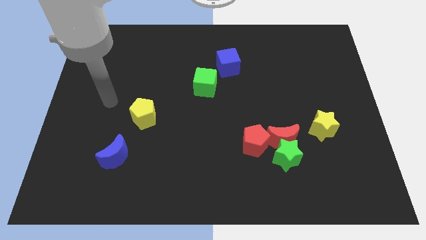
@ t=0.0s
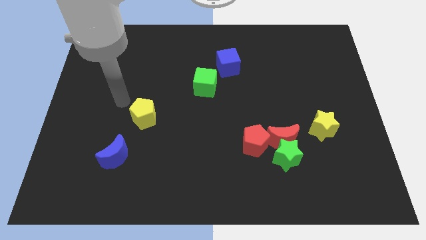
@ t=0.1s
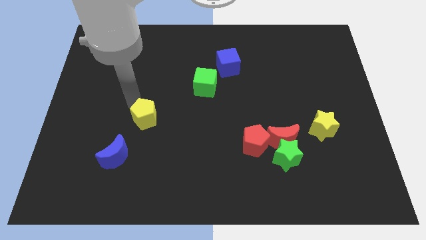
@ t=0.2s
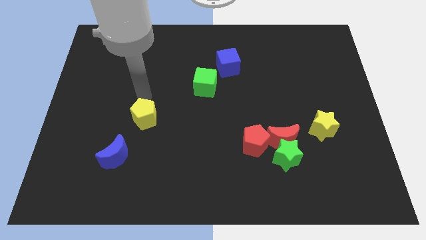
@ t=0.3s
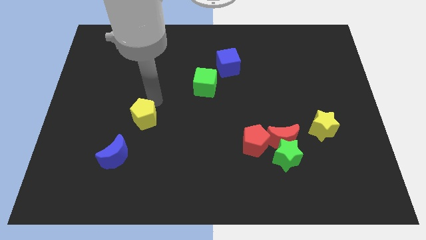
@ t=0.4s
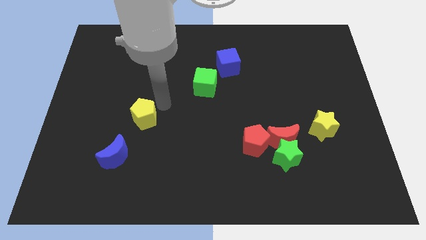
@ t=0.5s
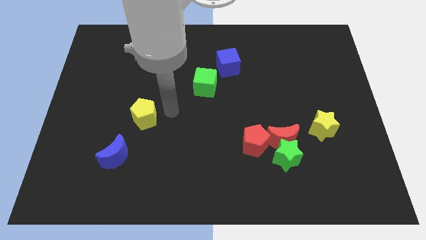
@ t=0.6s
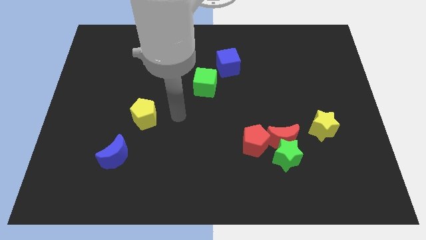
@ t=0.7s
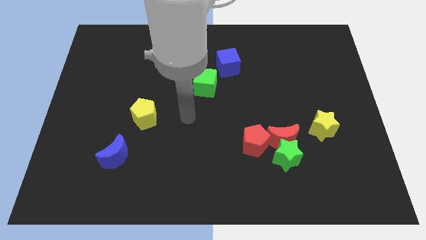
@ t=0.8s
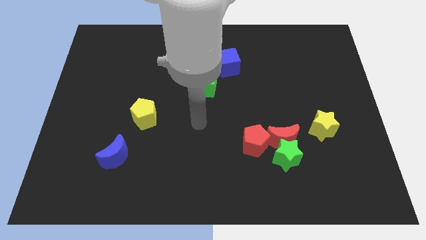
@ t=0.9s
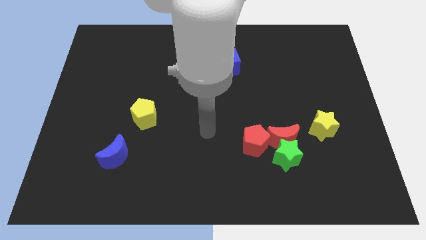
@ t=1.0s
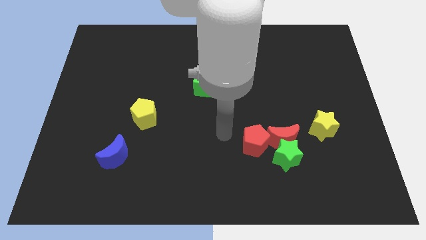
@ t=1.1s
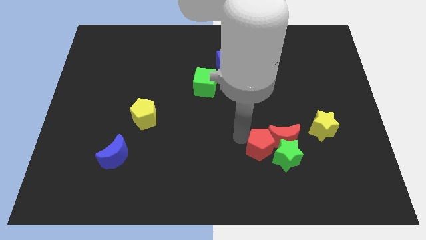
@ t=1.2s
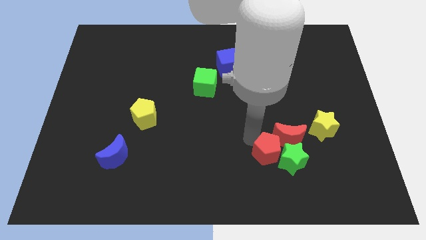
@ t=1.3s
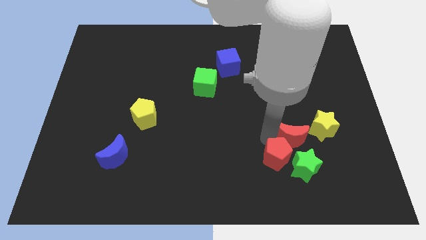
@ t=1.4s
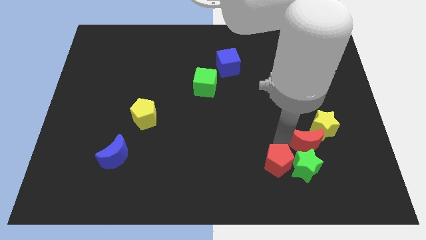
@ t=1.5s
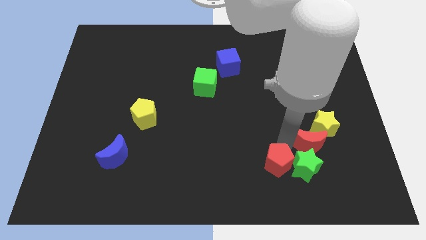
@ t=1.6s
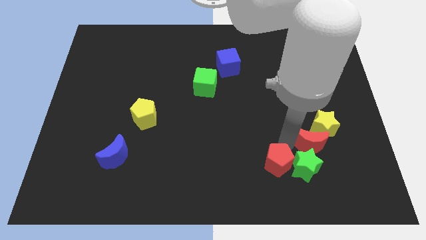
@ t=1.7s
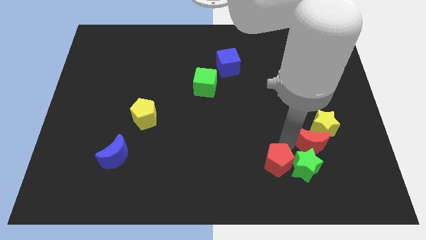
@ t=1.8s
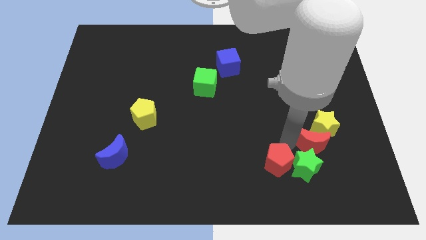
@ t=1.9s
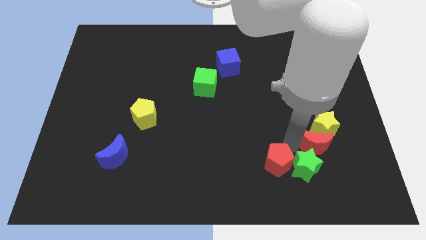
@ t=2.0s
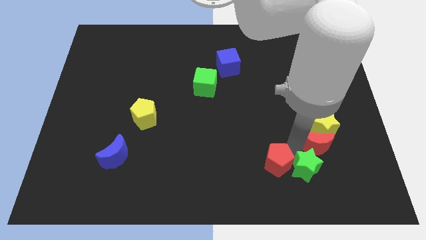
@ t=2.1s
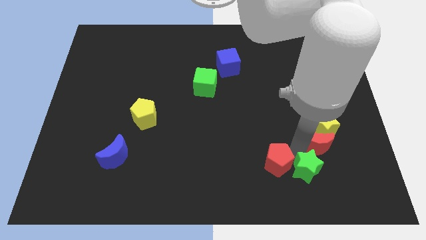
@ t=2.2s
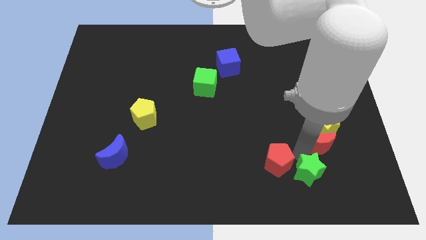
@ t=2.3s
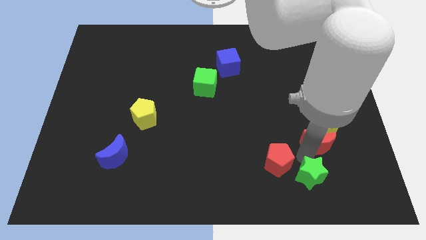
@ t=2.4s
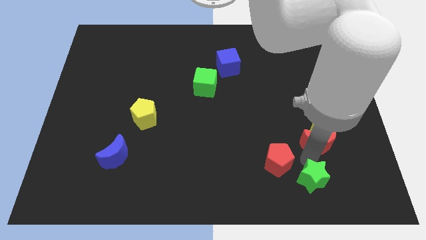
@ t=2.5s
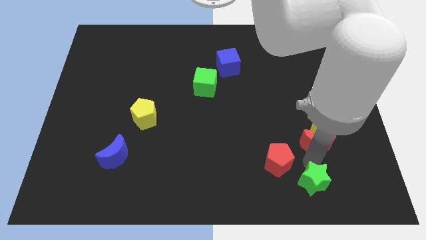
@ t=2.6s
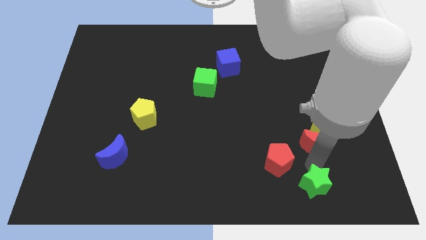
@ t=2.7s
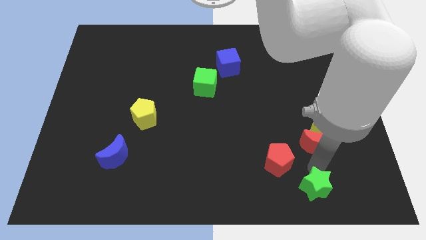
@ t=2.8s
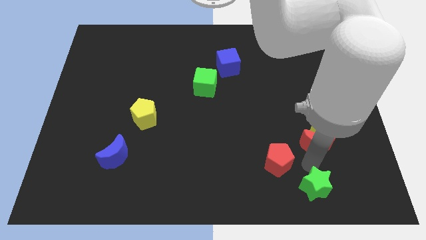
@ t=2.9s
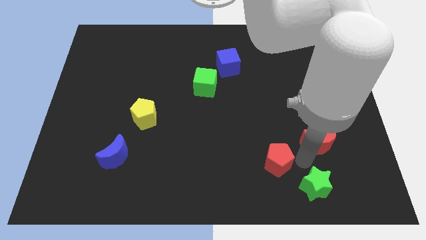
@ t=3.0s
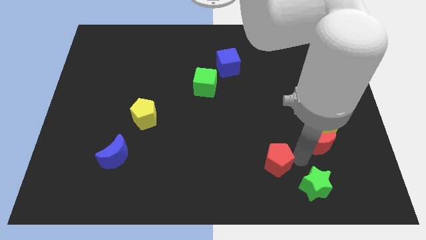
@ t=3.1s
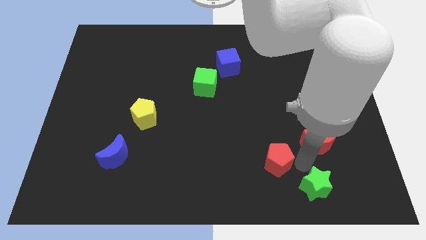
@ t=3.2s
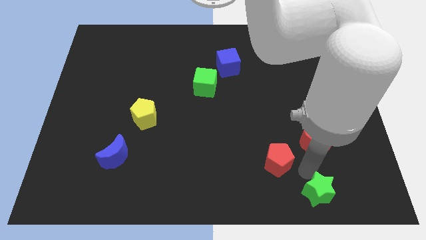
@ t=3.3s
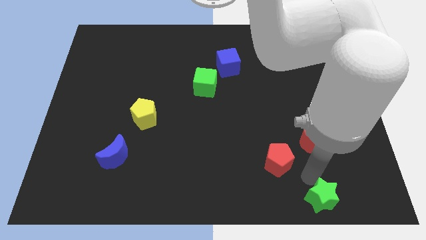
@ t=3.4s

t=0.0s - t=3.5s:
pull the green star apart from the red moon and red pentagon

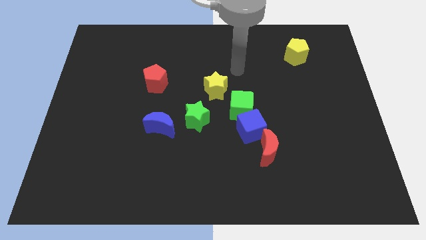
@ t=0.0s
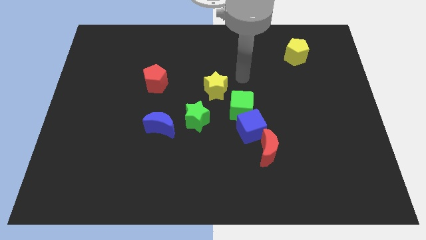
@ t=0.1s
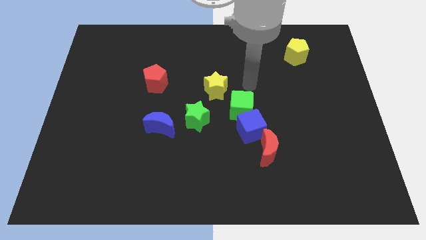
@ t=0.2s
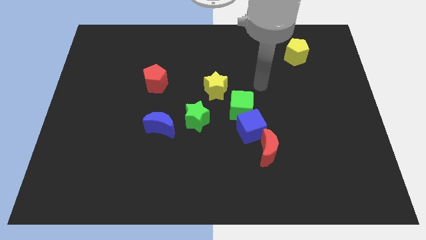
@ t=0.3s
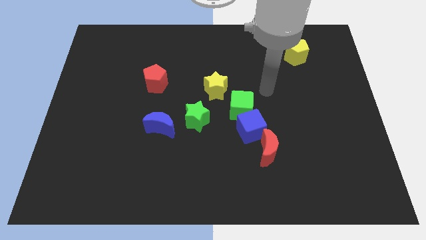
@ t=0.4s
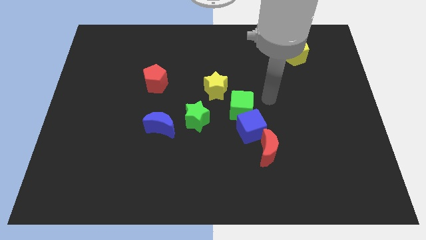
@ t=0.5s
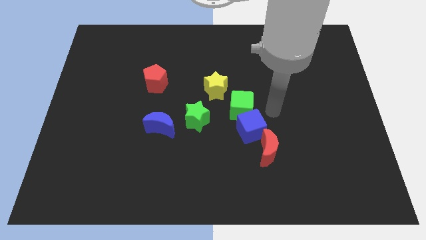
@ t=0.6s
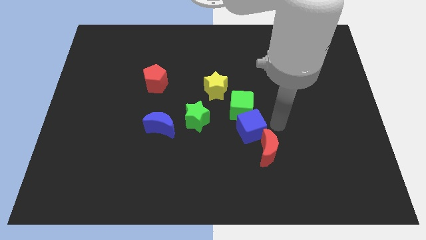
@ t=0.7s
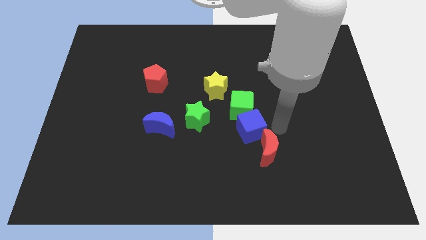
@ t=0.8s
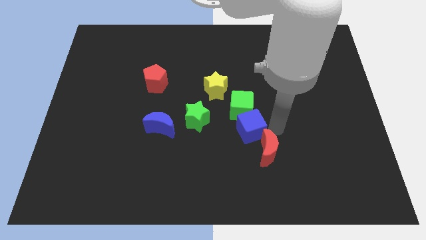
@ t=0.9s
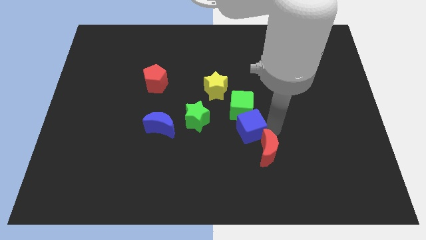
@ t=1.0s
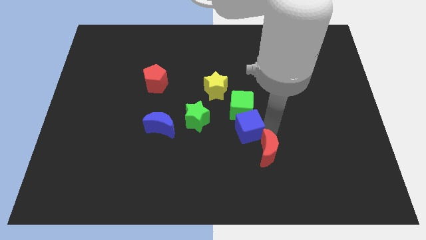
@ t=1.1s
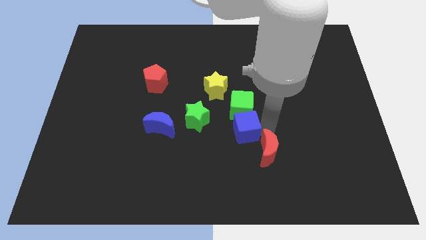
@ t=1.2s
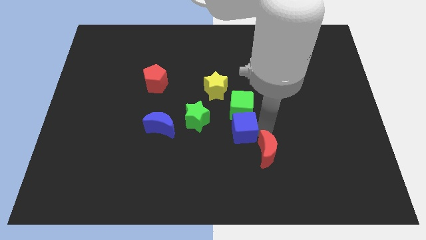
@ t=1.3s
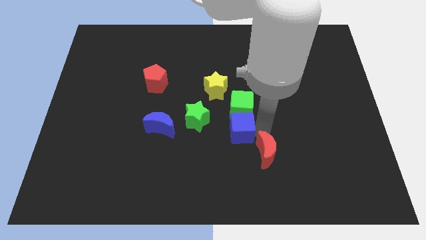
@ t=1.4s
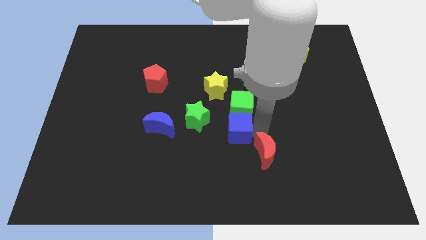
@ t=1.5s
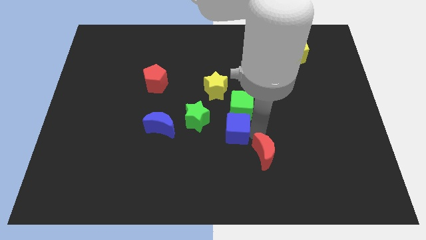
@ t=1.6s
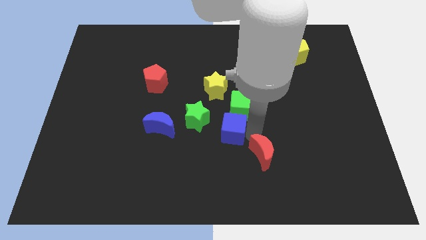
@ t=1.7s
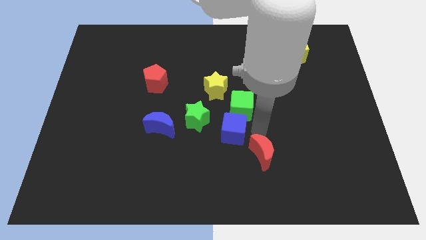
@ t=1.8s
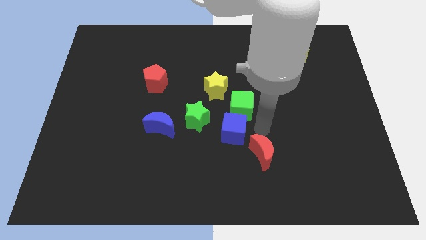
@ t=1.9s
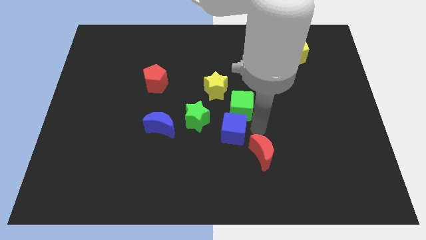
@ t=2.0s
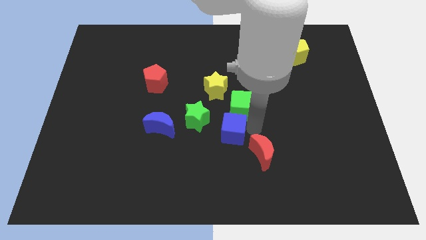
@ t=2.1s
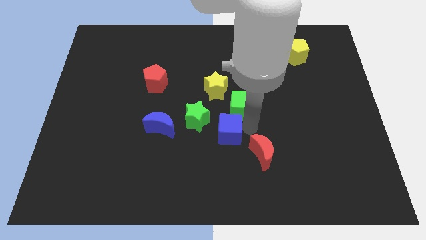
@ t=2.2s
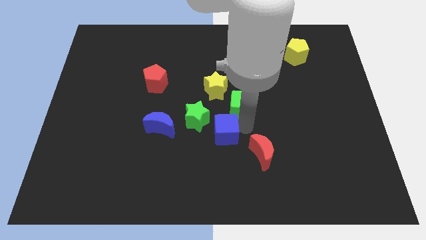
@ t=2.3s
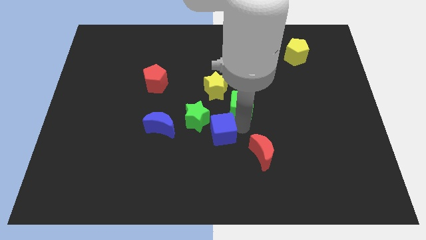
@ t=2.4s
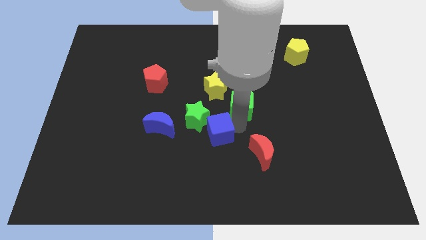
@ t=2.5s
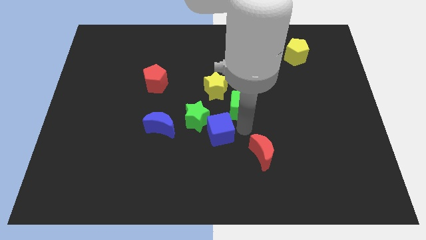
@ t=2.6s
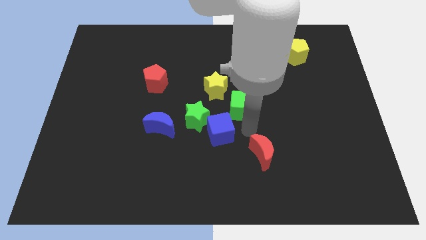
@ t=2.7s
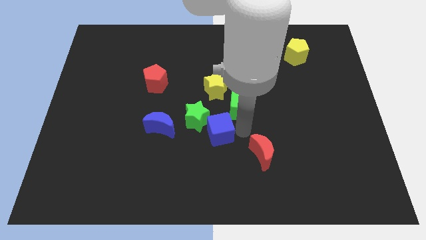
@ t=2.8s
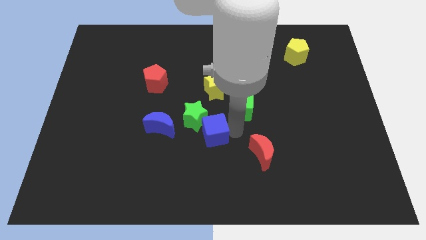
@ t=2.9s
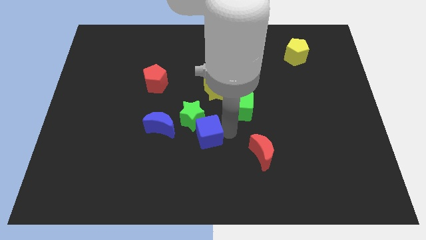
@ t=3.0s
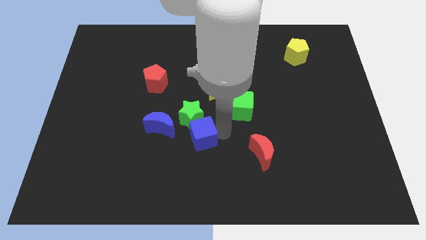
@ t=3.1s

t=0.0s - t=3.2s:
move the blue cube away from the green cube and red moon

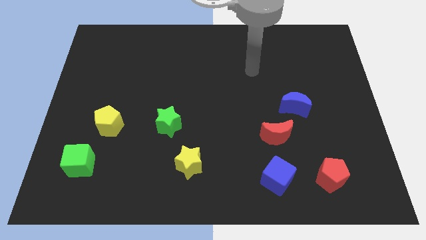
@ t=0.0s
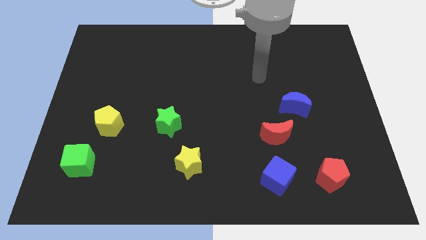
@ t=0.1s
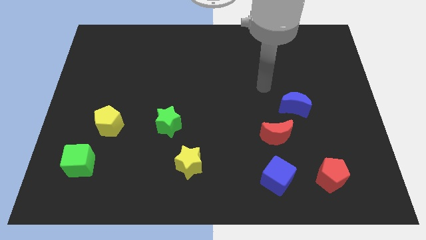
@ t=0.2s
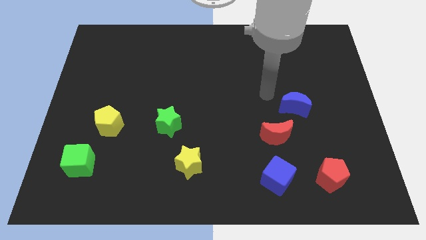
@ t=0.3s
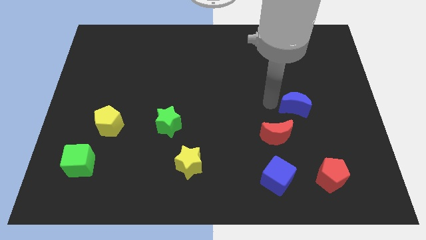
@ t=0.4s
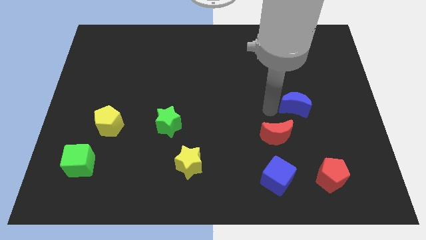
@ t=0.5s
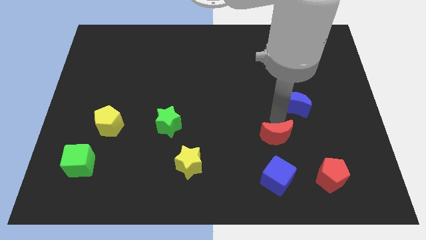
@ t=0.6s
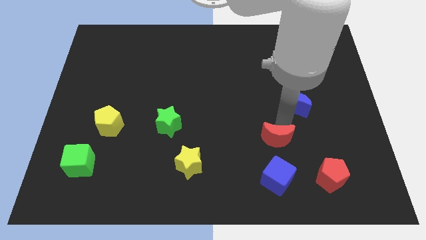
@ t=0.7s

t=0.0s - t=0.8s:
pull the blue moon apart from the red moon

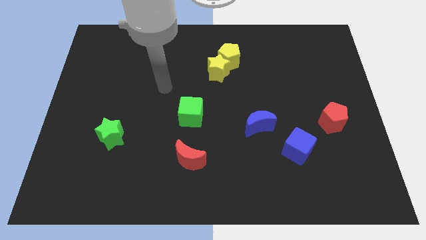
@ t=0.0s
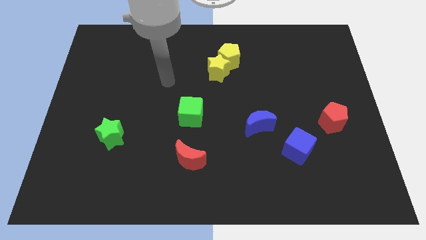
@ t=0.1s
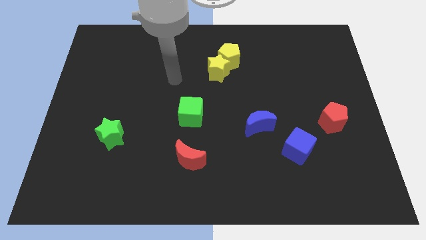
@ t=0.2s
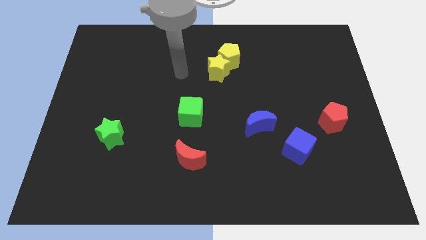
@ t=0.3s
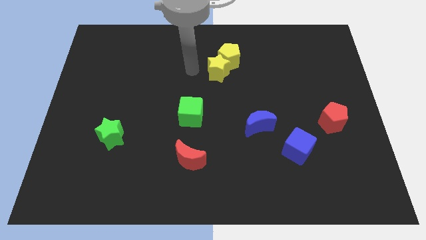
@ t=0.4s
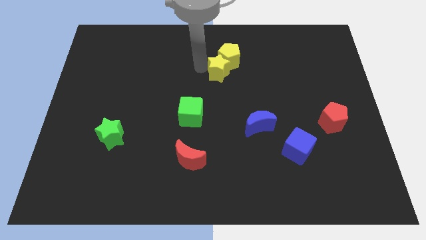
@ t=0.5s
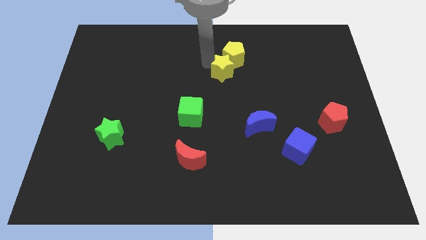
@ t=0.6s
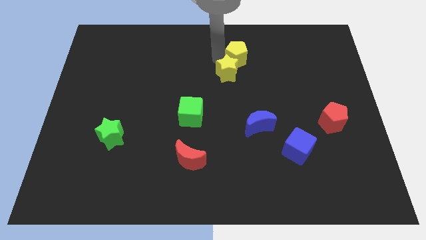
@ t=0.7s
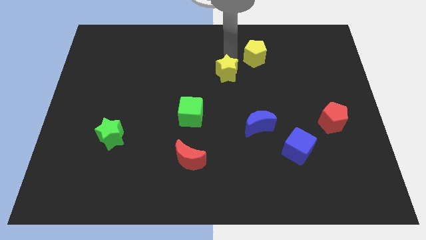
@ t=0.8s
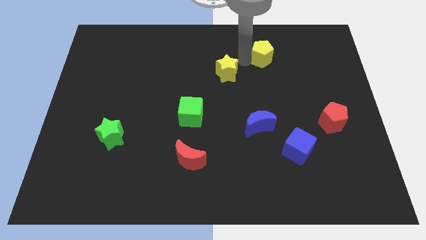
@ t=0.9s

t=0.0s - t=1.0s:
separate the yellow star from the yellow pentagon

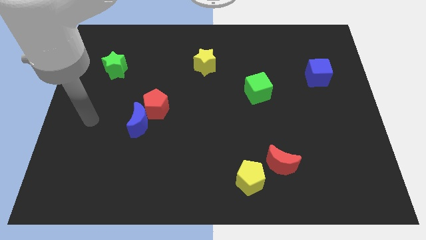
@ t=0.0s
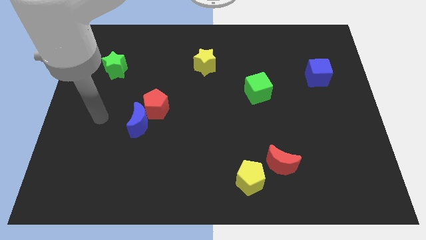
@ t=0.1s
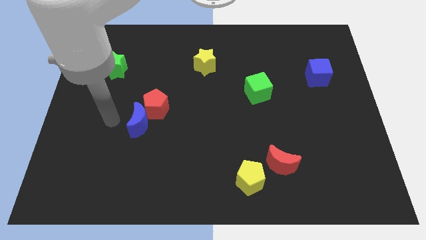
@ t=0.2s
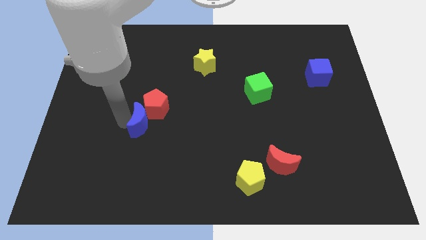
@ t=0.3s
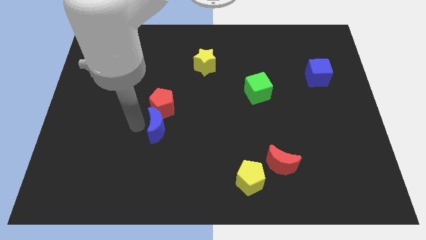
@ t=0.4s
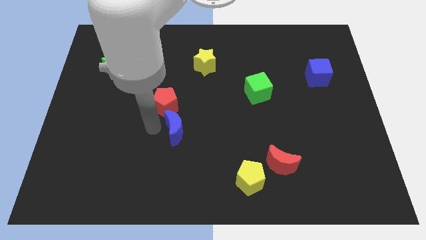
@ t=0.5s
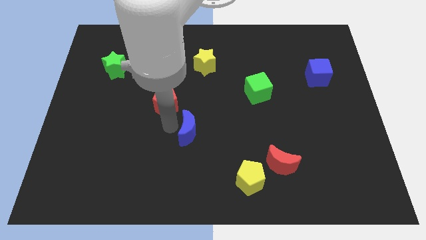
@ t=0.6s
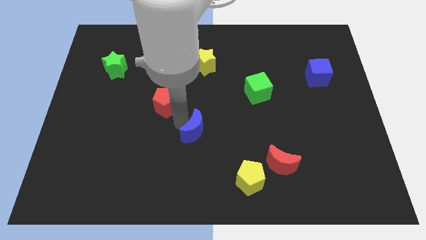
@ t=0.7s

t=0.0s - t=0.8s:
separate the red pentagon from the blue moon
